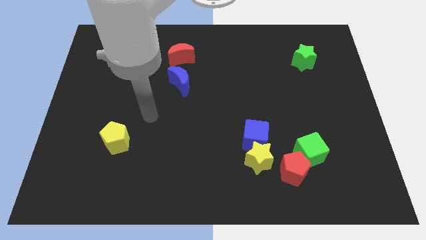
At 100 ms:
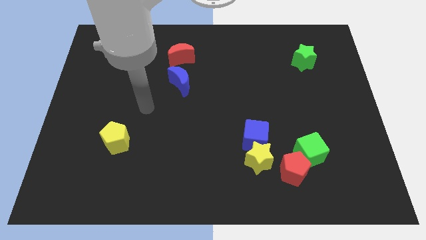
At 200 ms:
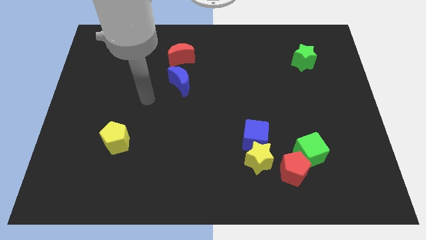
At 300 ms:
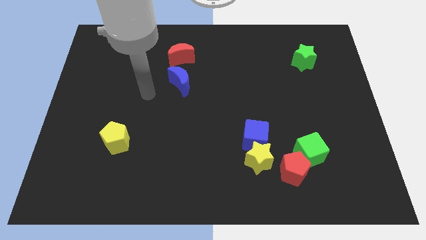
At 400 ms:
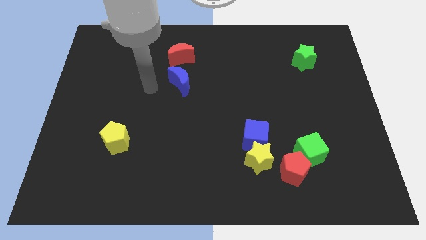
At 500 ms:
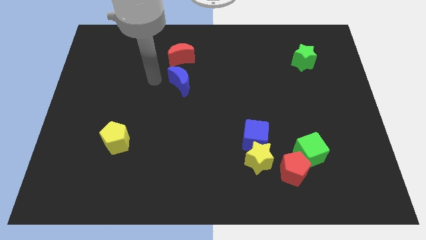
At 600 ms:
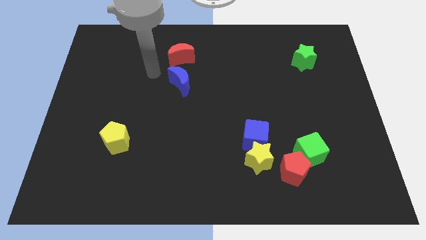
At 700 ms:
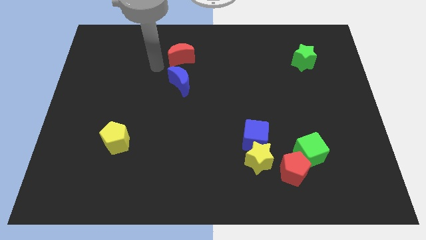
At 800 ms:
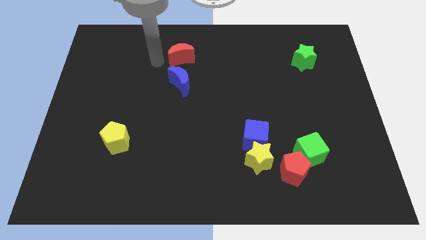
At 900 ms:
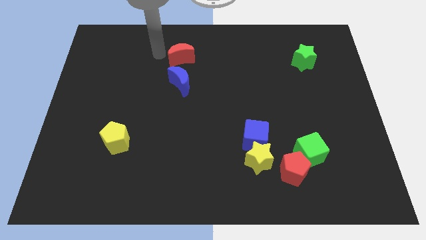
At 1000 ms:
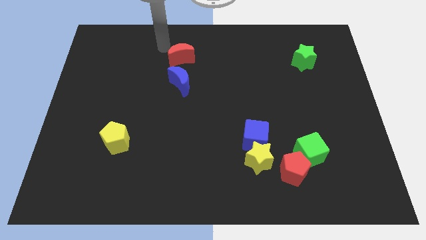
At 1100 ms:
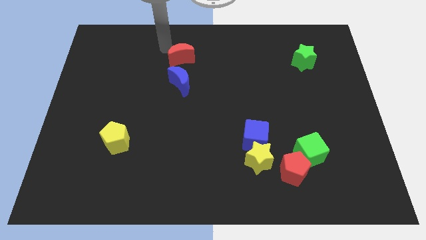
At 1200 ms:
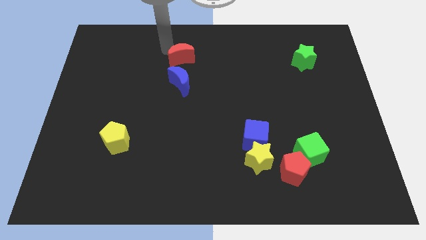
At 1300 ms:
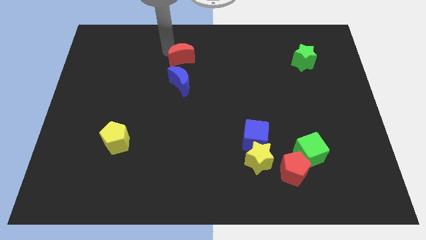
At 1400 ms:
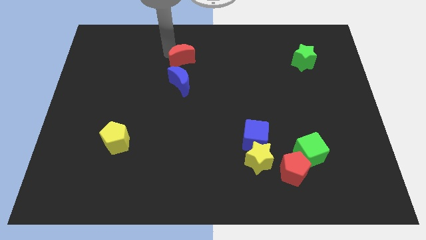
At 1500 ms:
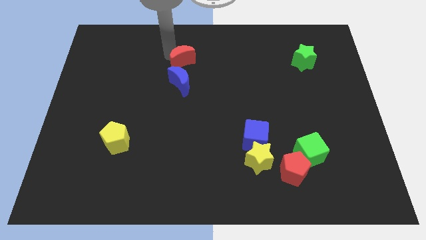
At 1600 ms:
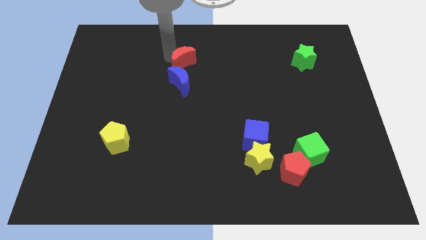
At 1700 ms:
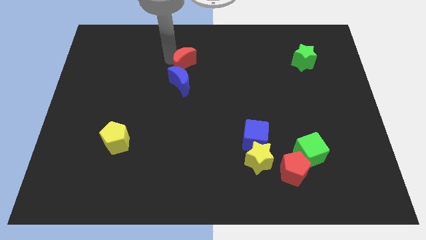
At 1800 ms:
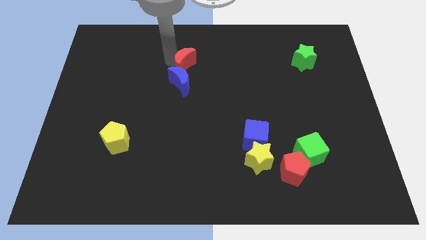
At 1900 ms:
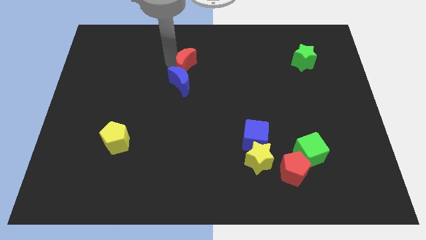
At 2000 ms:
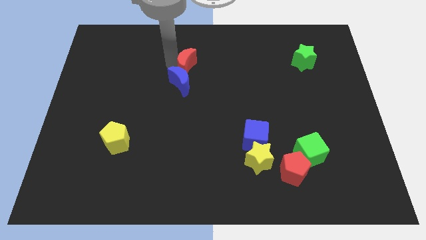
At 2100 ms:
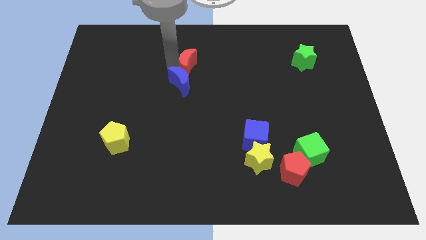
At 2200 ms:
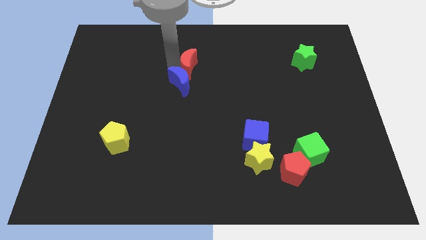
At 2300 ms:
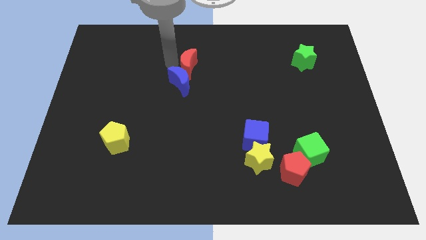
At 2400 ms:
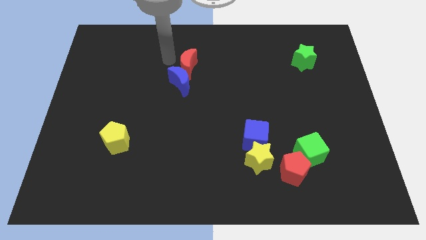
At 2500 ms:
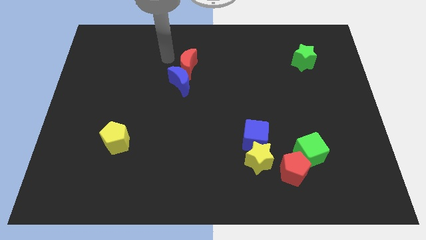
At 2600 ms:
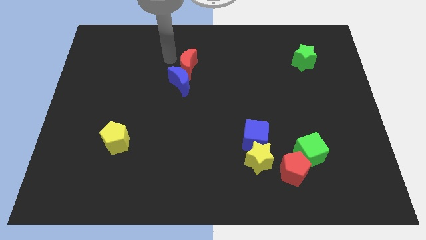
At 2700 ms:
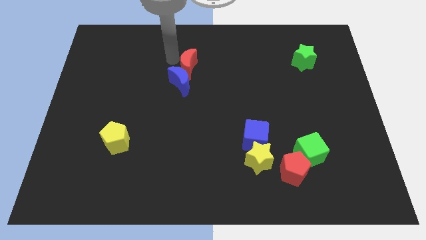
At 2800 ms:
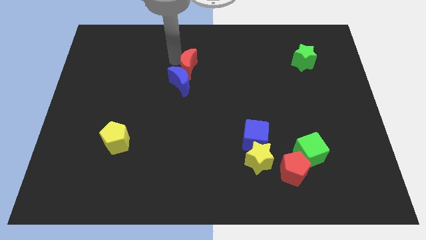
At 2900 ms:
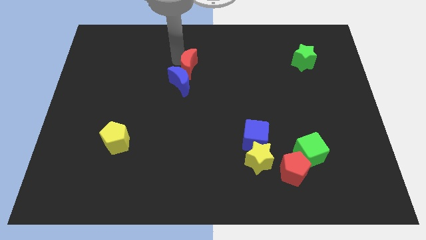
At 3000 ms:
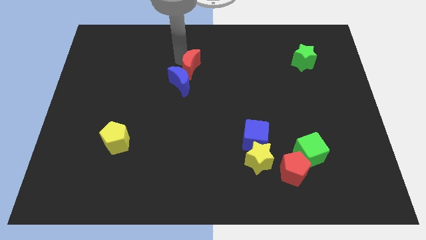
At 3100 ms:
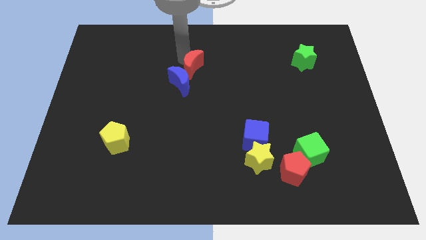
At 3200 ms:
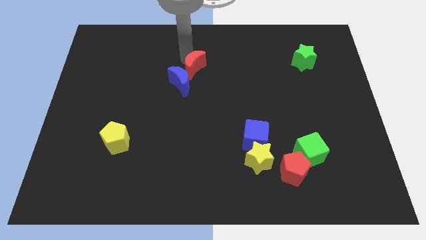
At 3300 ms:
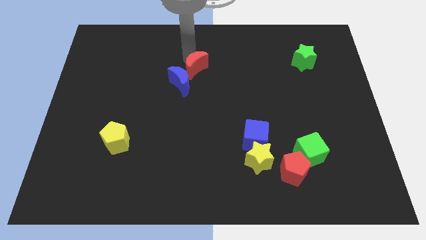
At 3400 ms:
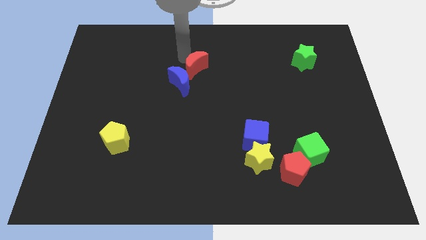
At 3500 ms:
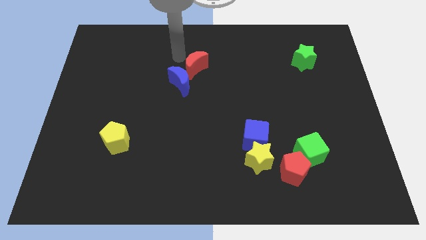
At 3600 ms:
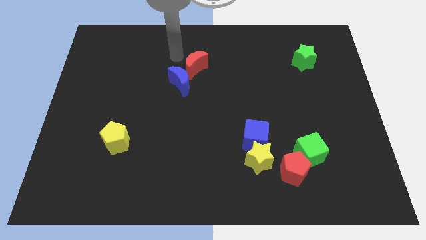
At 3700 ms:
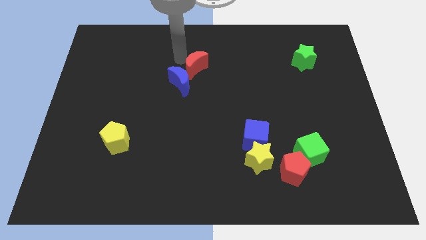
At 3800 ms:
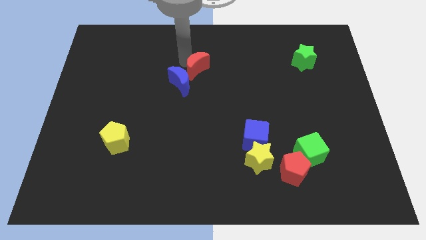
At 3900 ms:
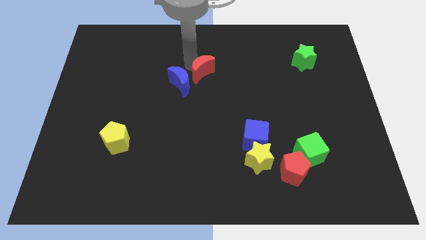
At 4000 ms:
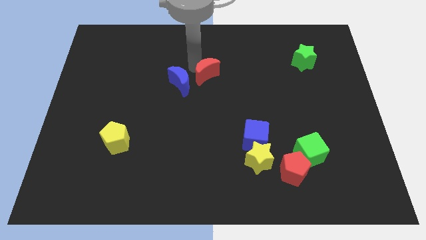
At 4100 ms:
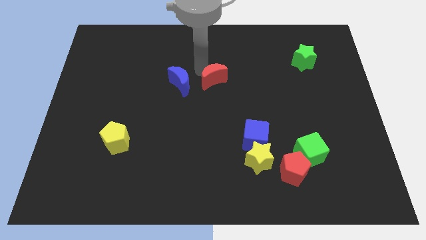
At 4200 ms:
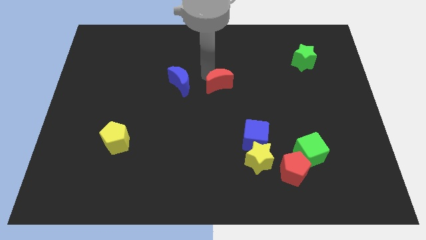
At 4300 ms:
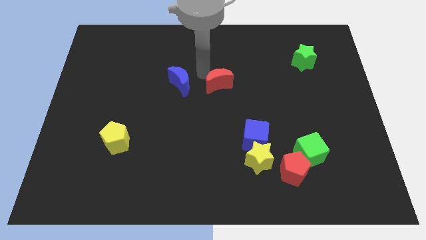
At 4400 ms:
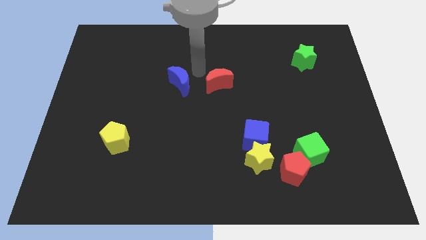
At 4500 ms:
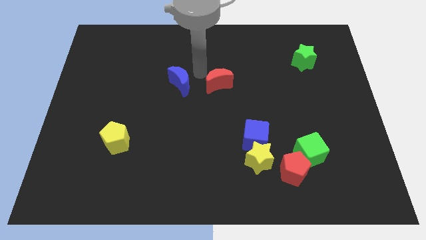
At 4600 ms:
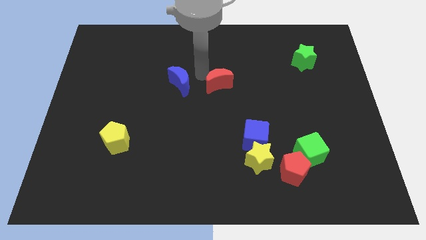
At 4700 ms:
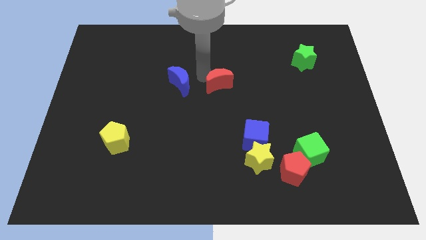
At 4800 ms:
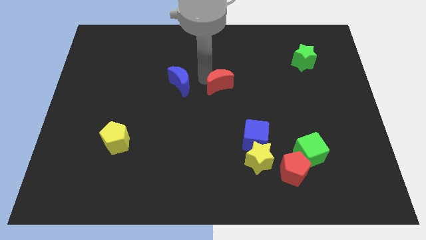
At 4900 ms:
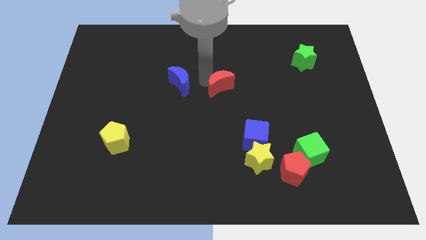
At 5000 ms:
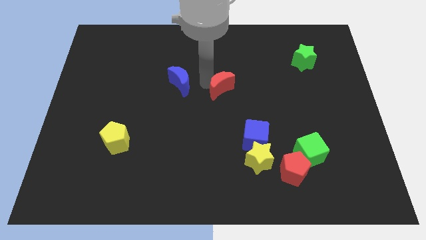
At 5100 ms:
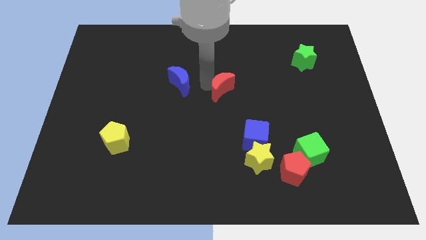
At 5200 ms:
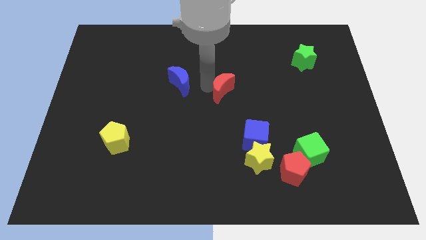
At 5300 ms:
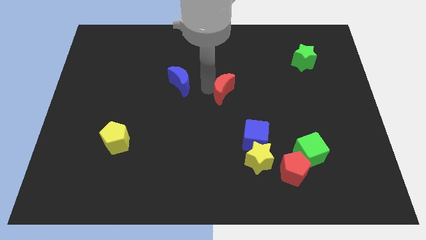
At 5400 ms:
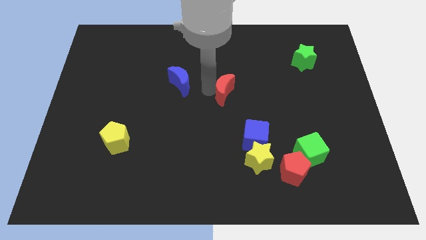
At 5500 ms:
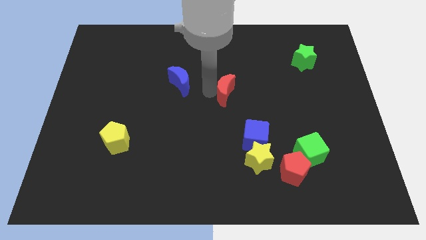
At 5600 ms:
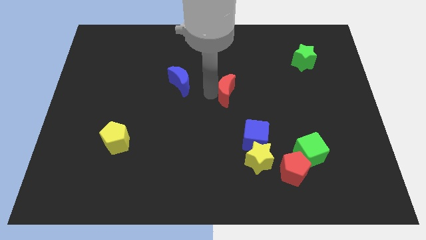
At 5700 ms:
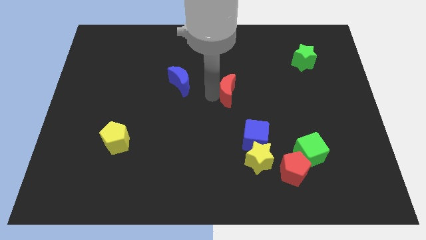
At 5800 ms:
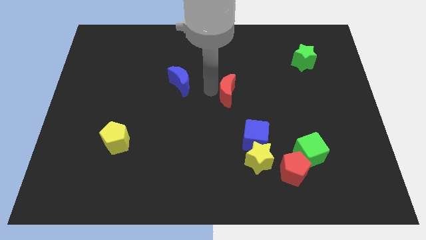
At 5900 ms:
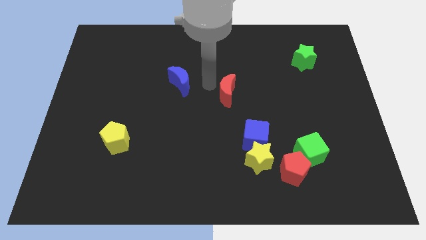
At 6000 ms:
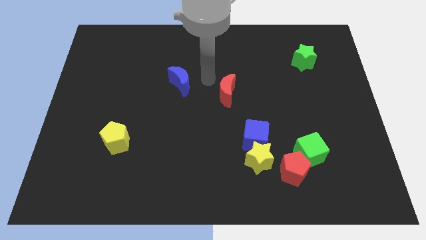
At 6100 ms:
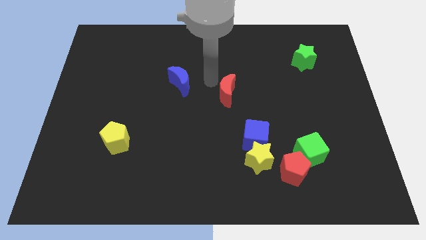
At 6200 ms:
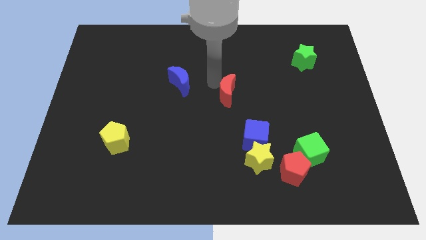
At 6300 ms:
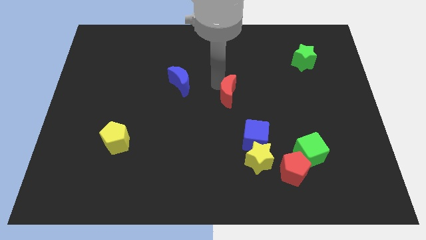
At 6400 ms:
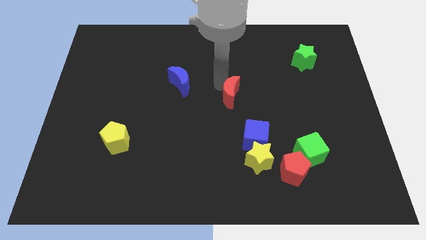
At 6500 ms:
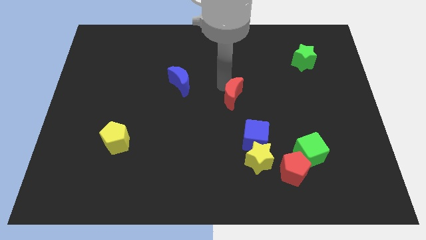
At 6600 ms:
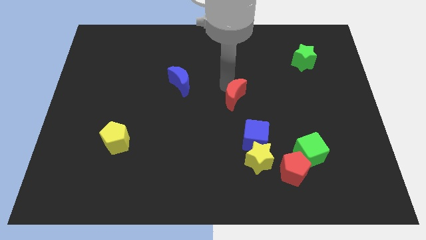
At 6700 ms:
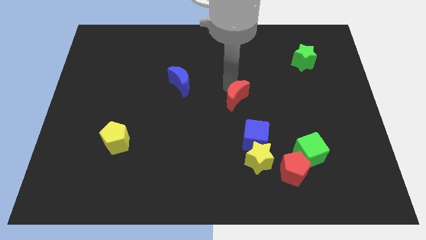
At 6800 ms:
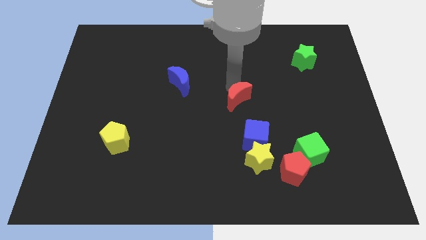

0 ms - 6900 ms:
slide the red moon downwards and to the right

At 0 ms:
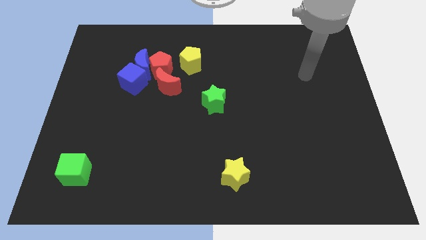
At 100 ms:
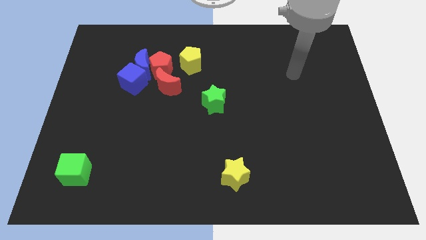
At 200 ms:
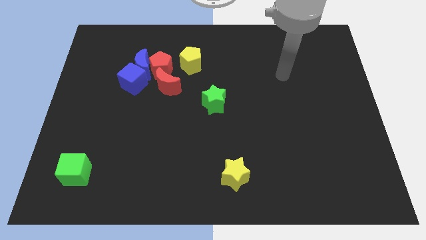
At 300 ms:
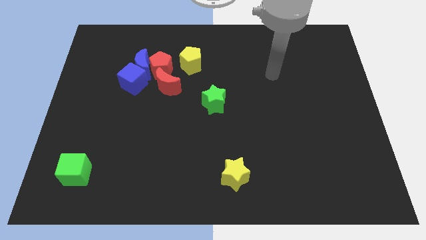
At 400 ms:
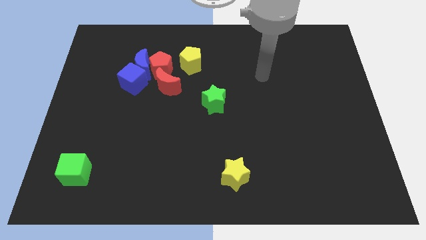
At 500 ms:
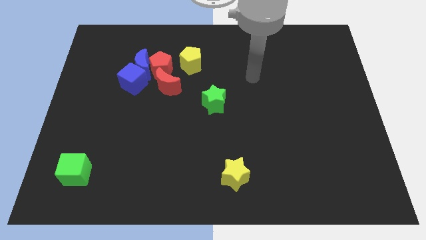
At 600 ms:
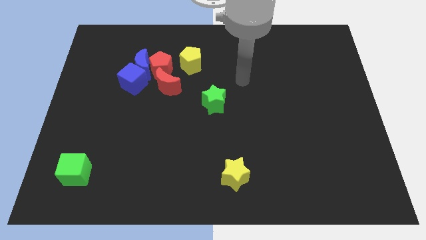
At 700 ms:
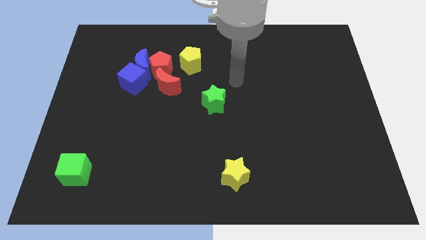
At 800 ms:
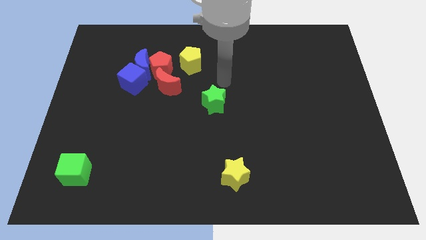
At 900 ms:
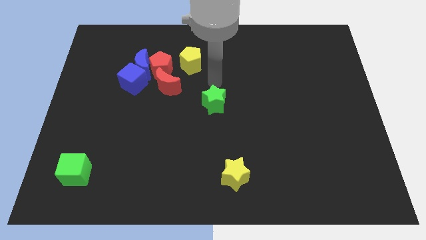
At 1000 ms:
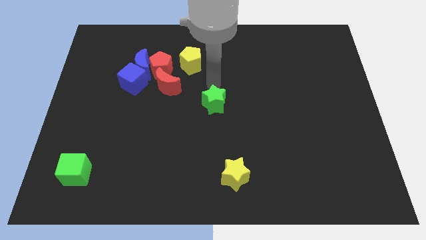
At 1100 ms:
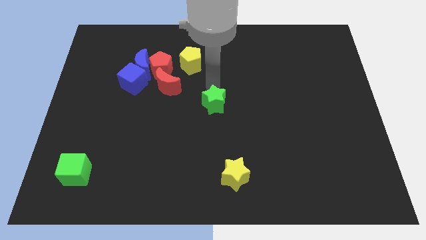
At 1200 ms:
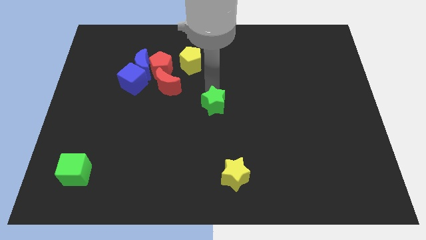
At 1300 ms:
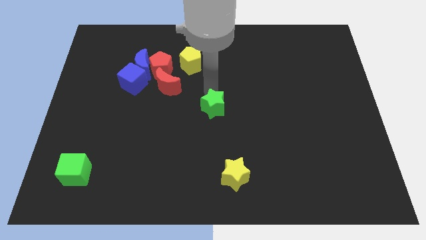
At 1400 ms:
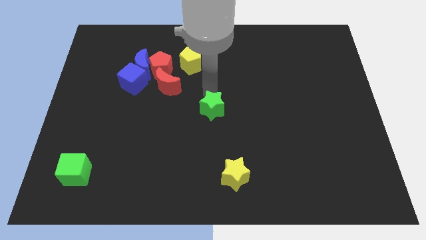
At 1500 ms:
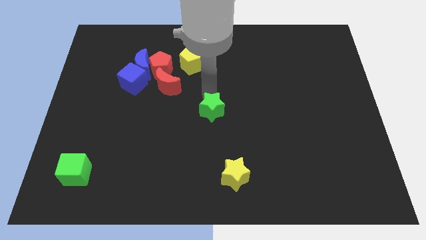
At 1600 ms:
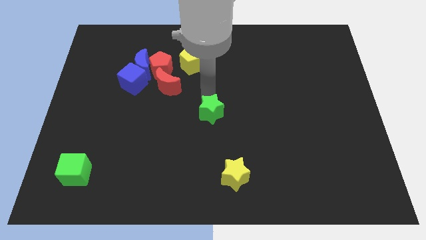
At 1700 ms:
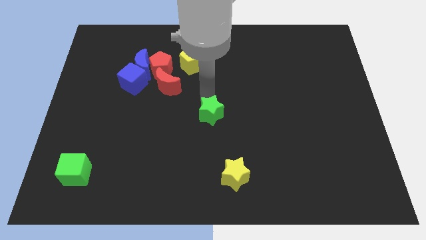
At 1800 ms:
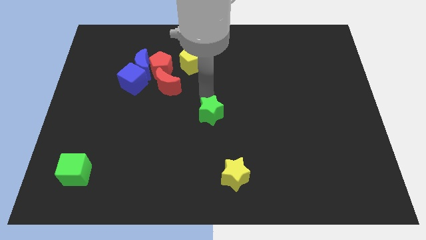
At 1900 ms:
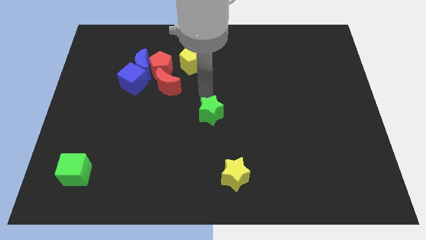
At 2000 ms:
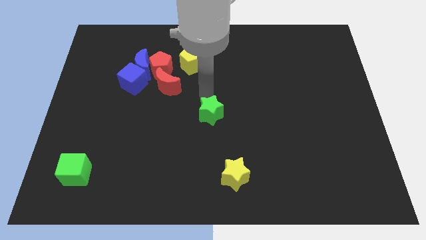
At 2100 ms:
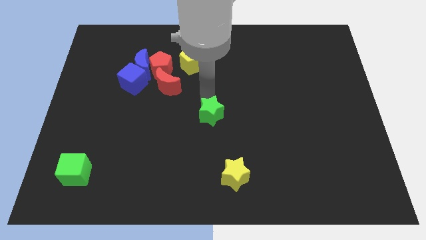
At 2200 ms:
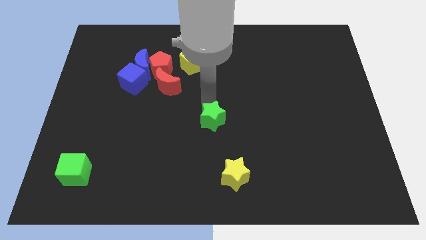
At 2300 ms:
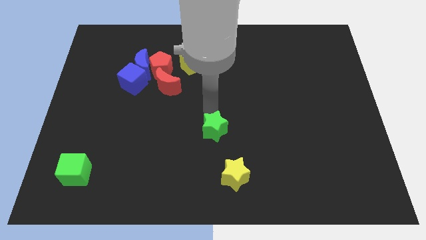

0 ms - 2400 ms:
push the green star down a little
